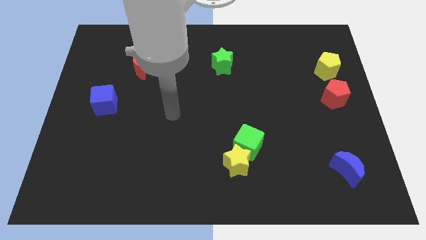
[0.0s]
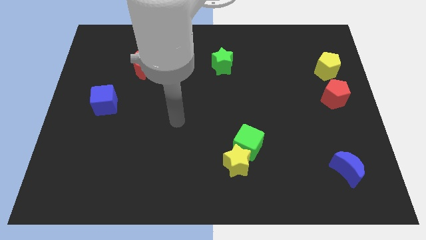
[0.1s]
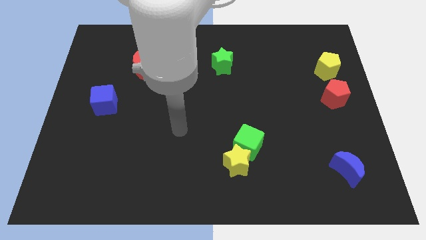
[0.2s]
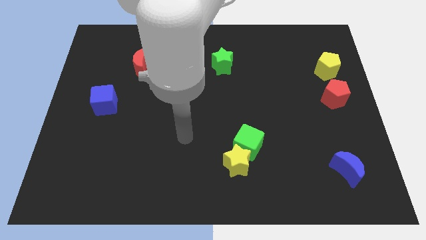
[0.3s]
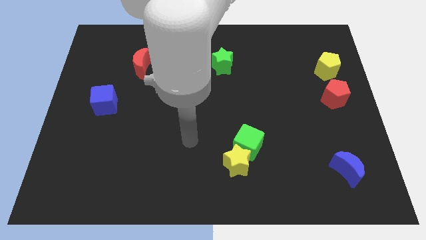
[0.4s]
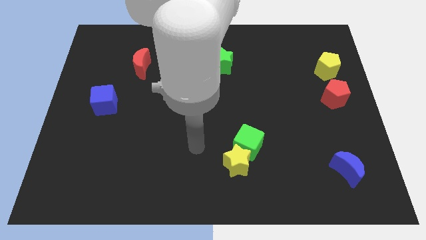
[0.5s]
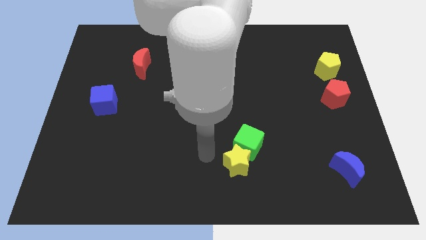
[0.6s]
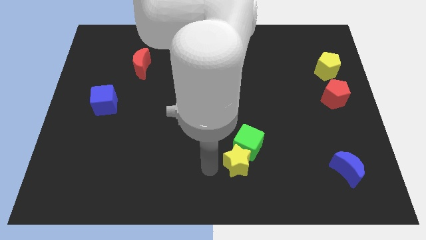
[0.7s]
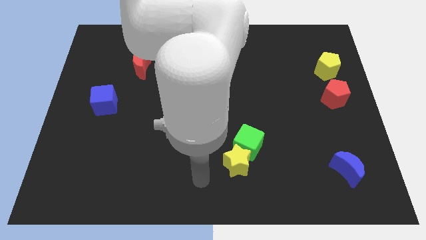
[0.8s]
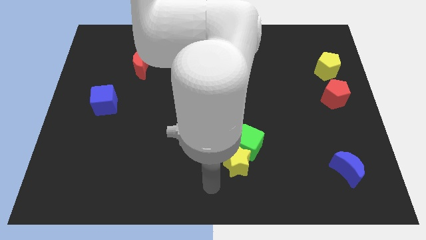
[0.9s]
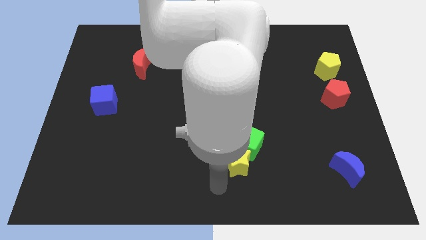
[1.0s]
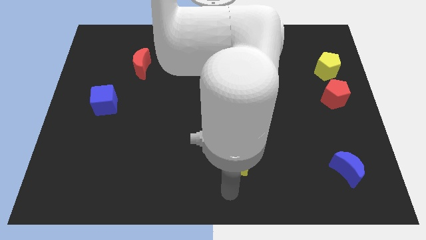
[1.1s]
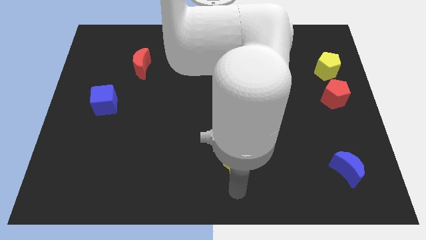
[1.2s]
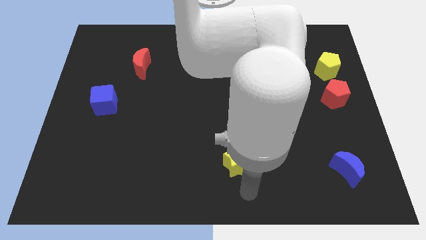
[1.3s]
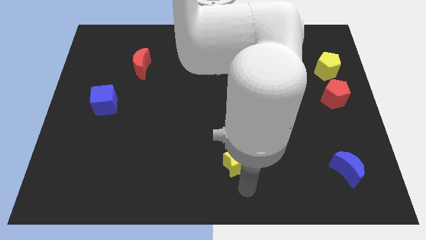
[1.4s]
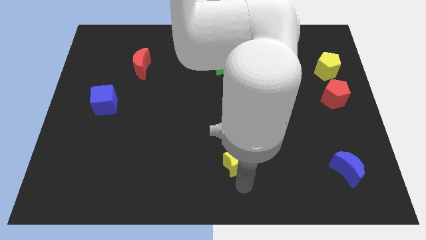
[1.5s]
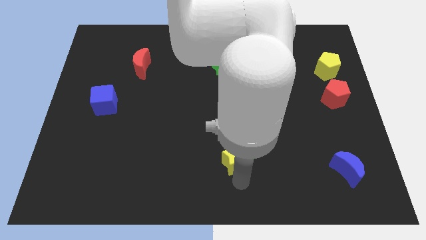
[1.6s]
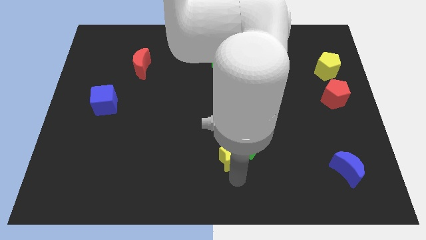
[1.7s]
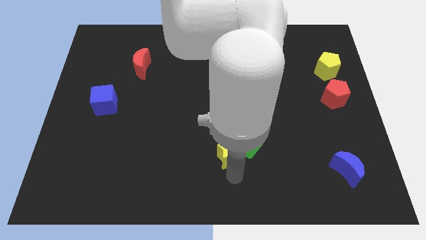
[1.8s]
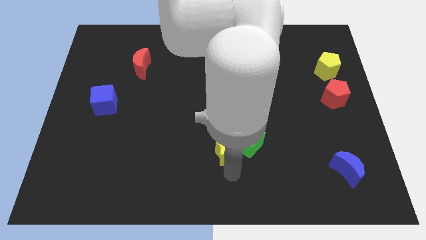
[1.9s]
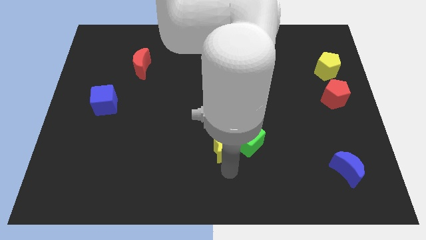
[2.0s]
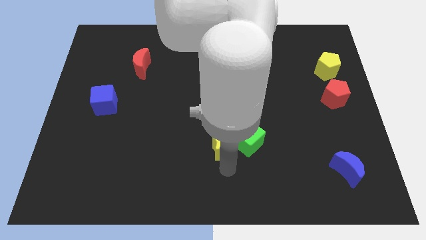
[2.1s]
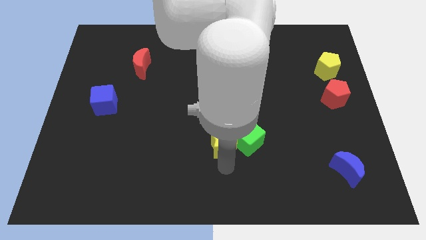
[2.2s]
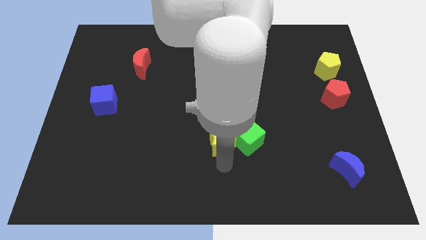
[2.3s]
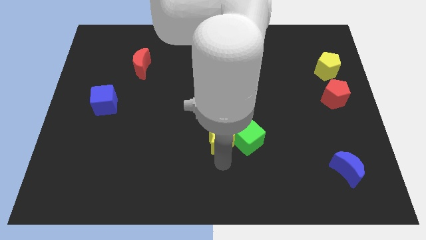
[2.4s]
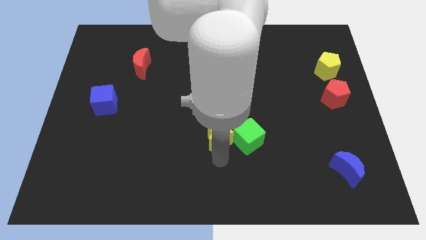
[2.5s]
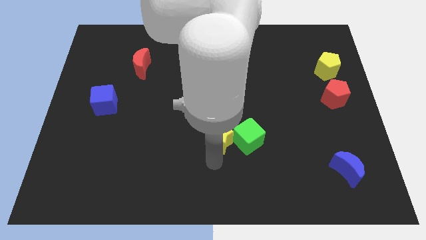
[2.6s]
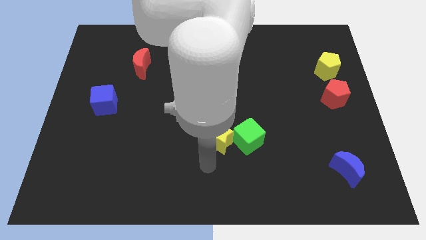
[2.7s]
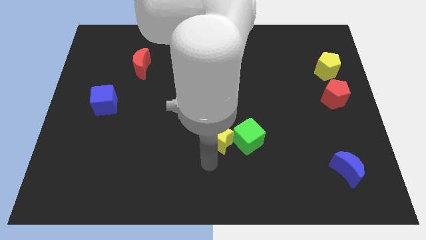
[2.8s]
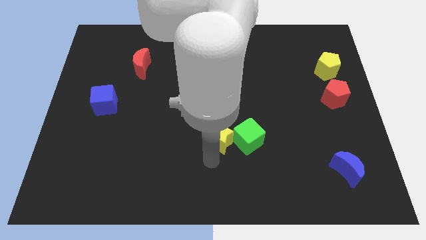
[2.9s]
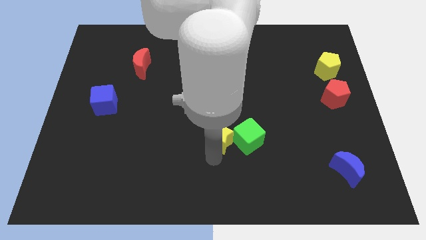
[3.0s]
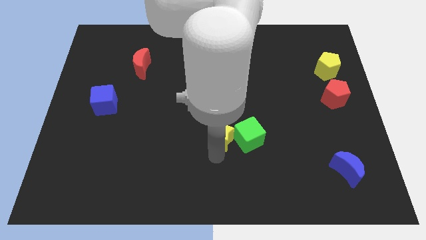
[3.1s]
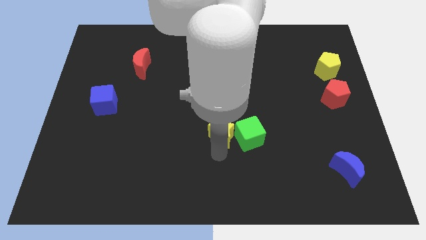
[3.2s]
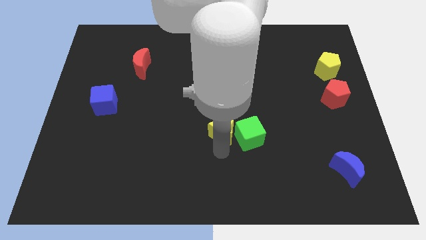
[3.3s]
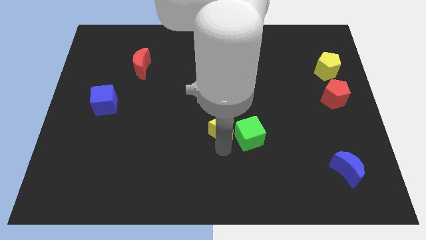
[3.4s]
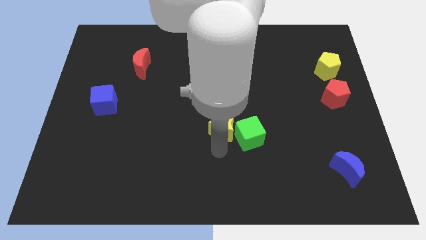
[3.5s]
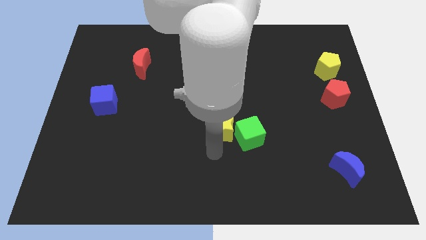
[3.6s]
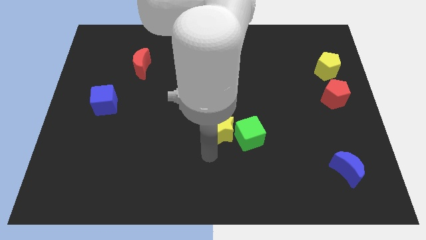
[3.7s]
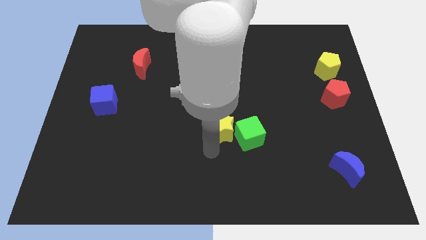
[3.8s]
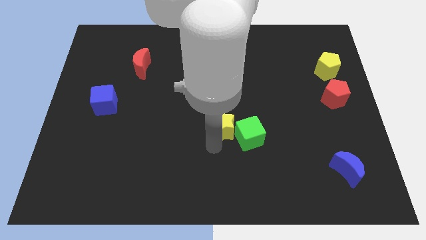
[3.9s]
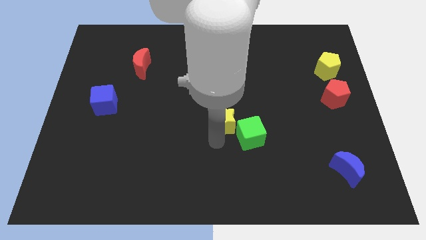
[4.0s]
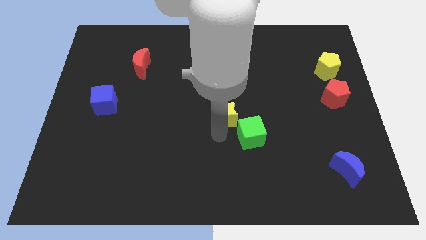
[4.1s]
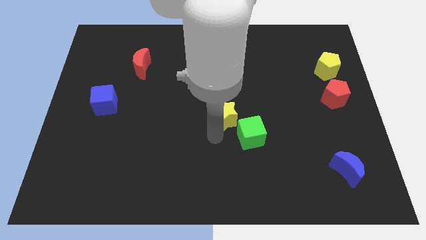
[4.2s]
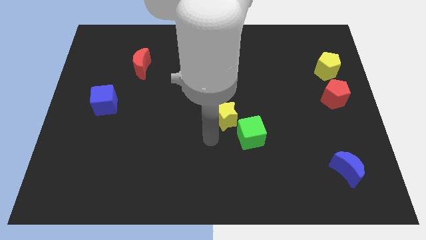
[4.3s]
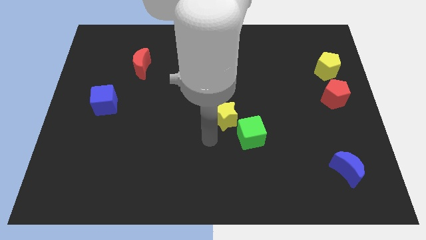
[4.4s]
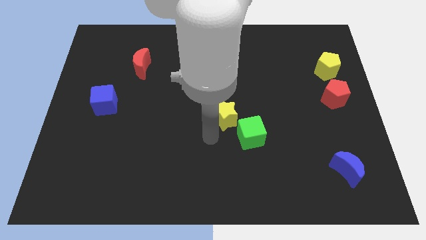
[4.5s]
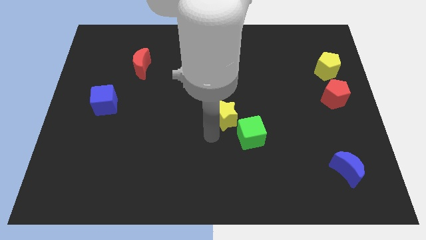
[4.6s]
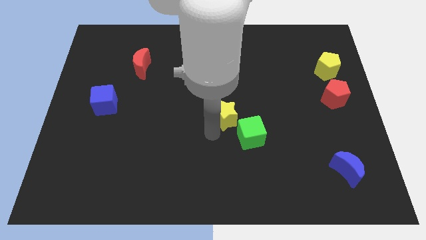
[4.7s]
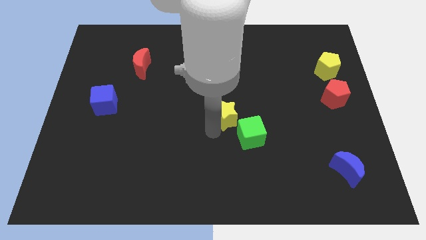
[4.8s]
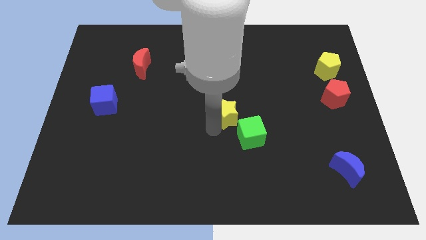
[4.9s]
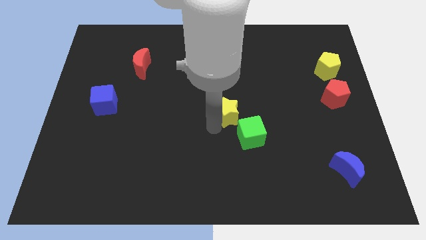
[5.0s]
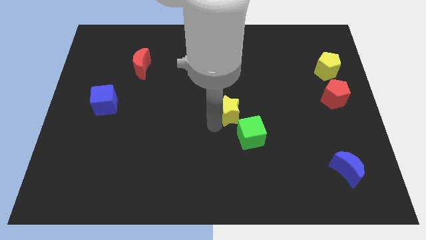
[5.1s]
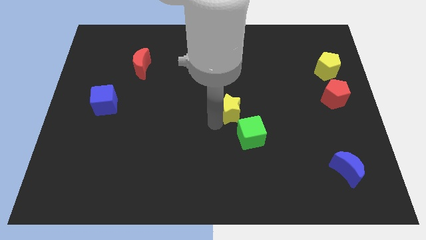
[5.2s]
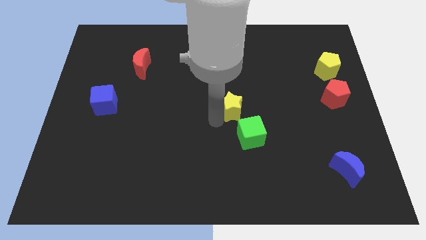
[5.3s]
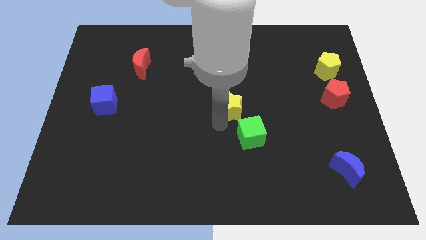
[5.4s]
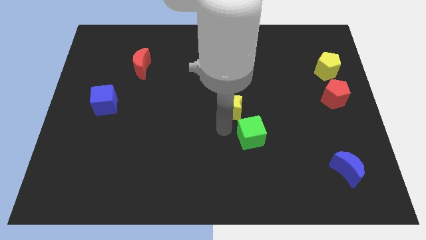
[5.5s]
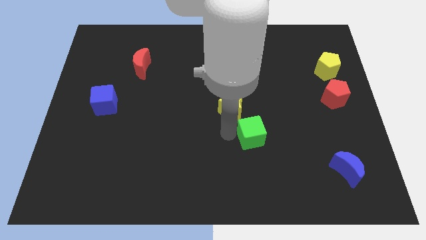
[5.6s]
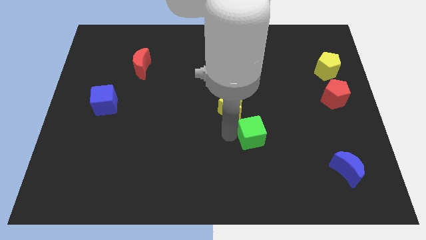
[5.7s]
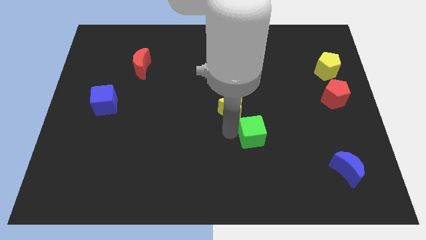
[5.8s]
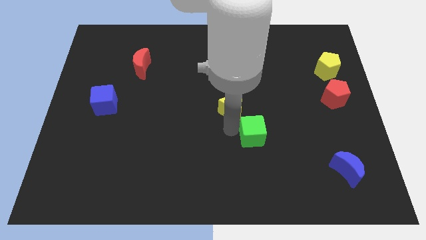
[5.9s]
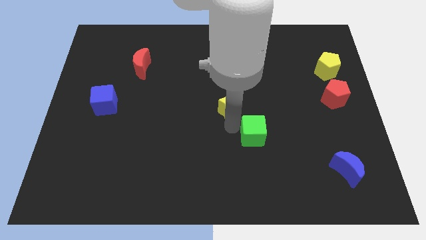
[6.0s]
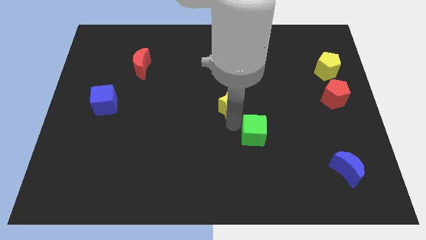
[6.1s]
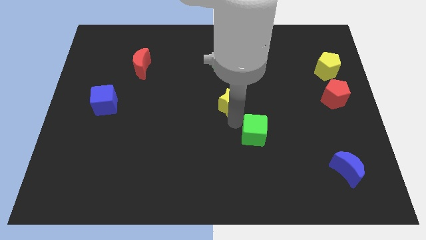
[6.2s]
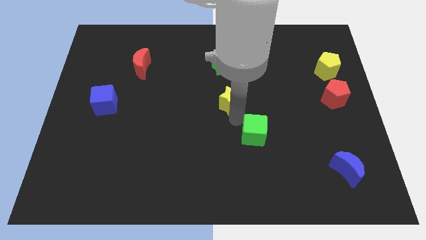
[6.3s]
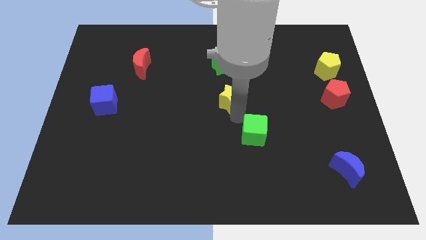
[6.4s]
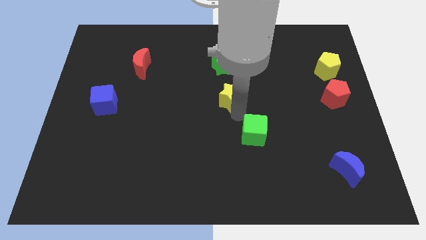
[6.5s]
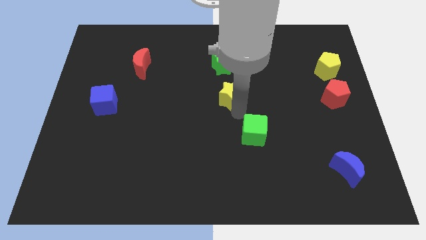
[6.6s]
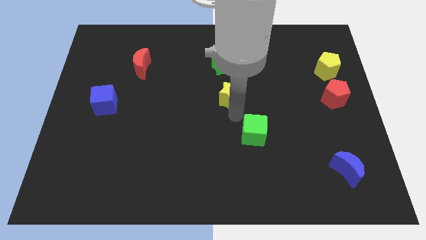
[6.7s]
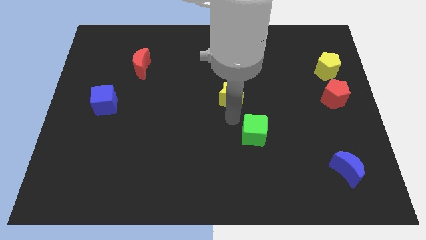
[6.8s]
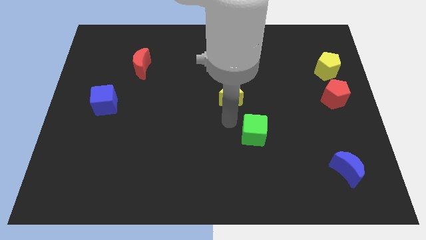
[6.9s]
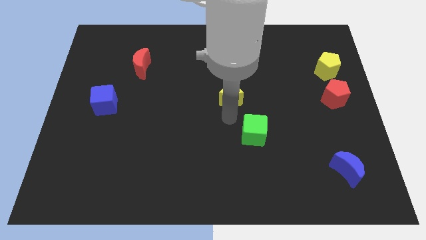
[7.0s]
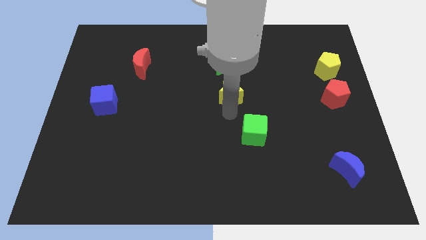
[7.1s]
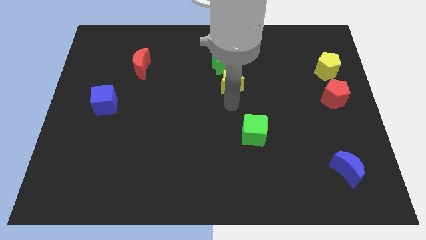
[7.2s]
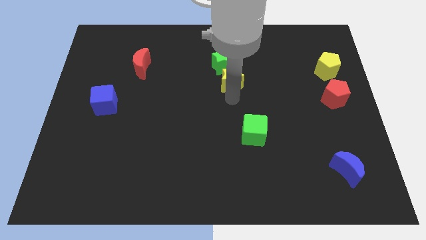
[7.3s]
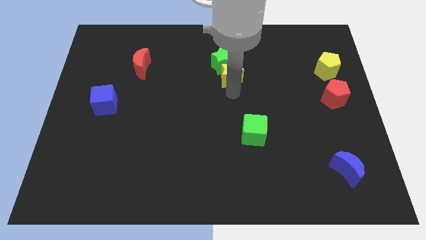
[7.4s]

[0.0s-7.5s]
slide the yellow star to the green star
